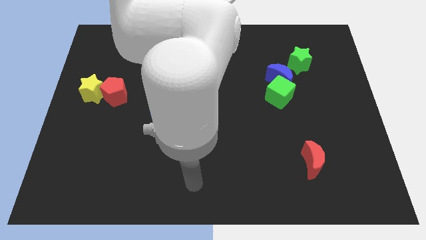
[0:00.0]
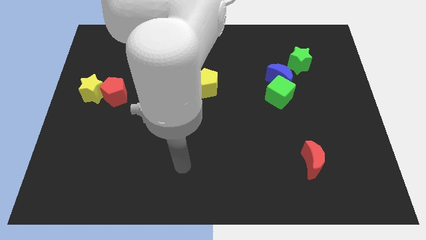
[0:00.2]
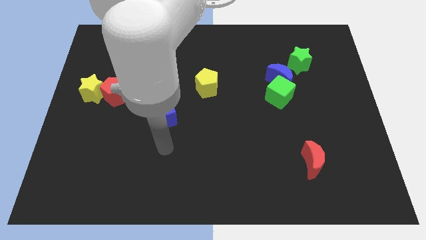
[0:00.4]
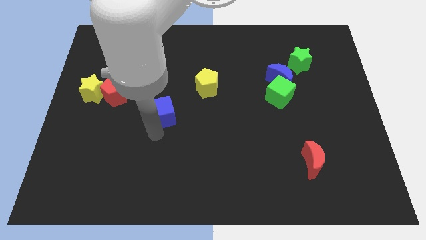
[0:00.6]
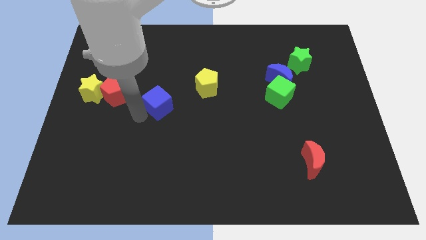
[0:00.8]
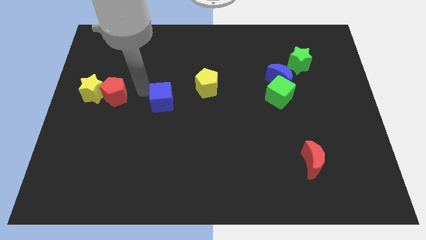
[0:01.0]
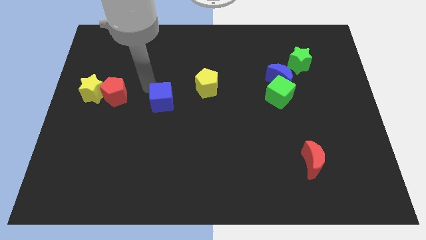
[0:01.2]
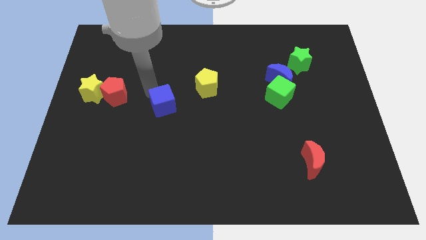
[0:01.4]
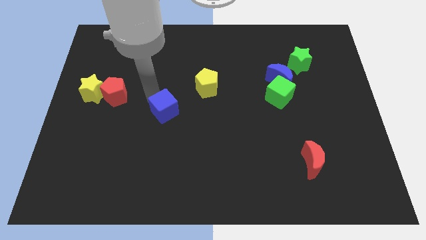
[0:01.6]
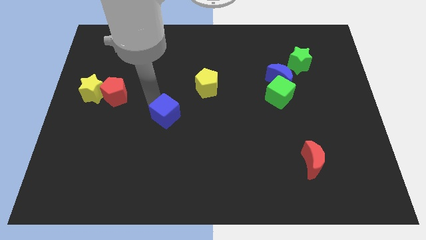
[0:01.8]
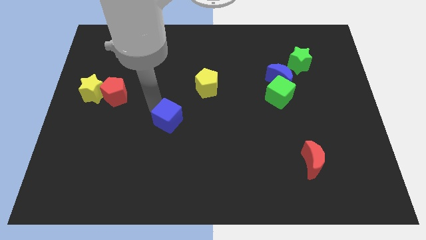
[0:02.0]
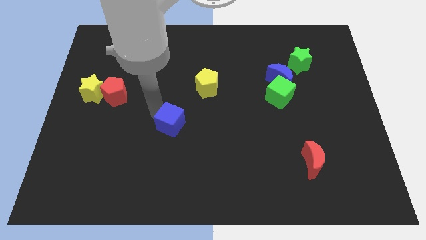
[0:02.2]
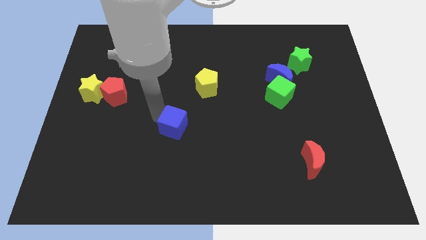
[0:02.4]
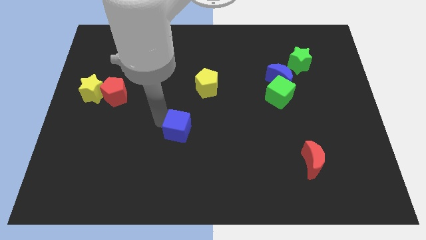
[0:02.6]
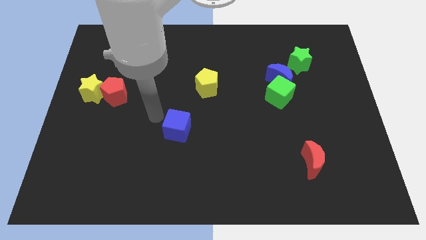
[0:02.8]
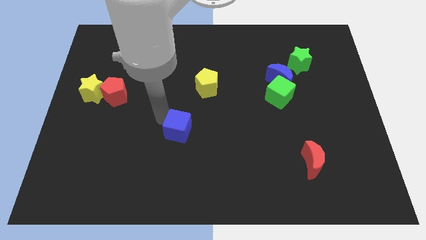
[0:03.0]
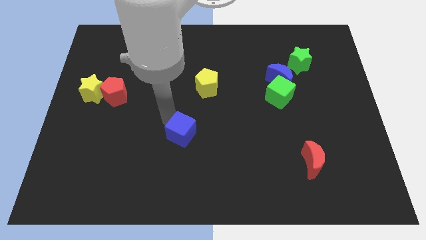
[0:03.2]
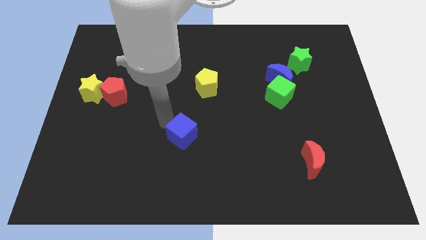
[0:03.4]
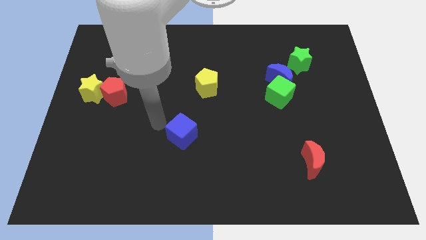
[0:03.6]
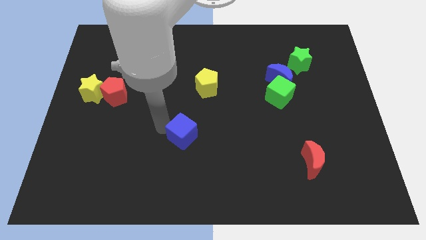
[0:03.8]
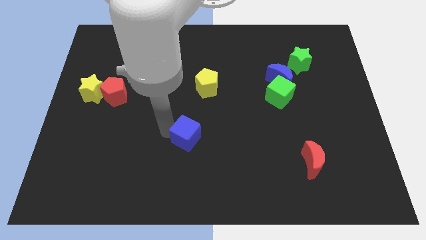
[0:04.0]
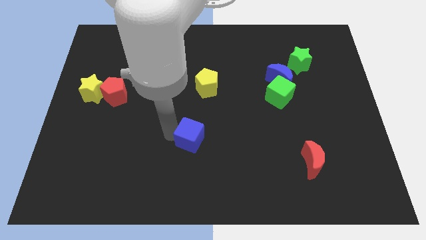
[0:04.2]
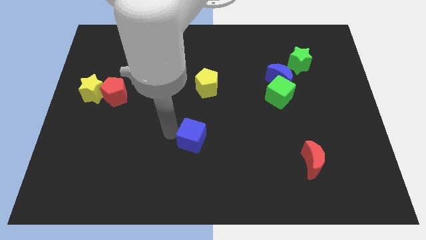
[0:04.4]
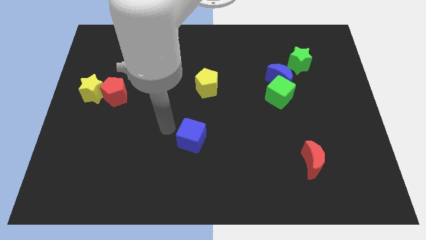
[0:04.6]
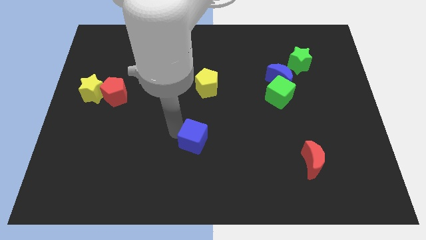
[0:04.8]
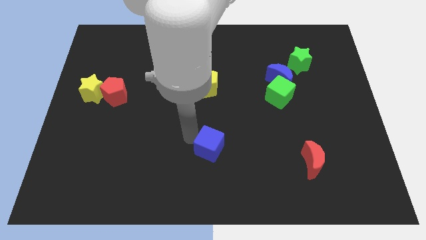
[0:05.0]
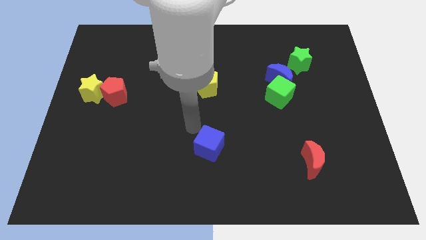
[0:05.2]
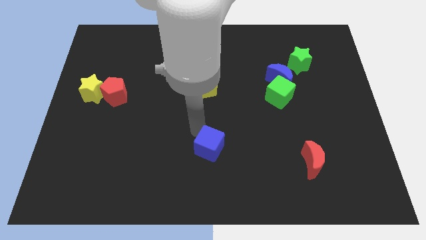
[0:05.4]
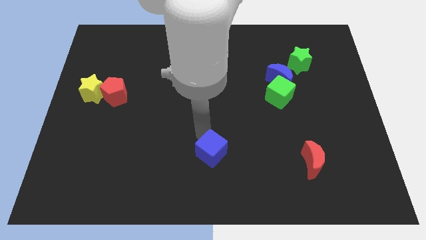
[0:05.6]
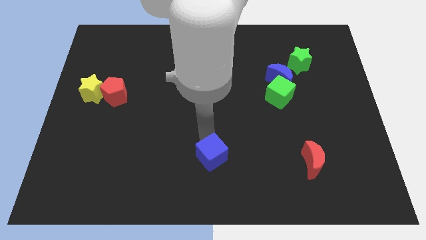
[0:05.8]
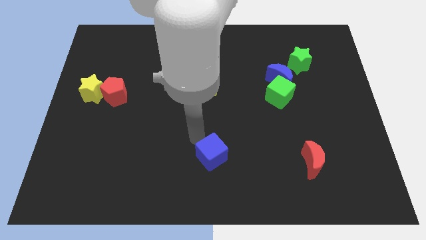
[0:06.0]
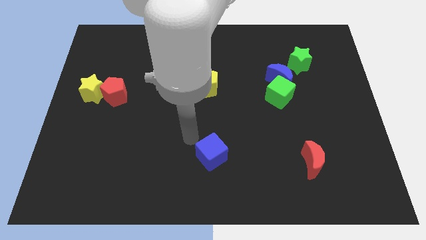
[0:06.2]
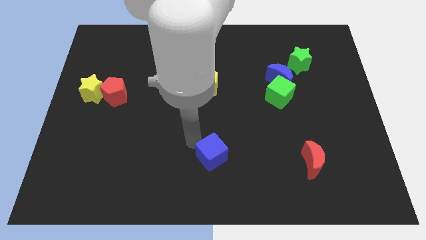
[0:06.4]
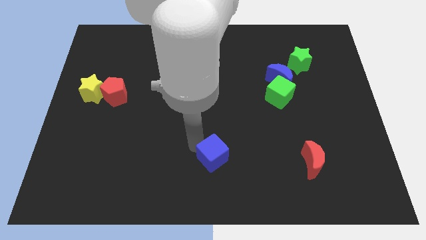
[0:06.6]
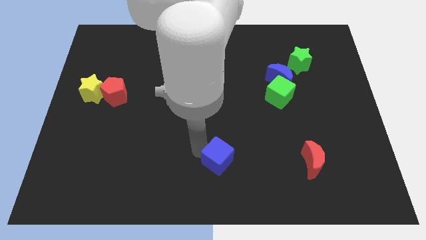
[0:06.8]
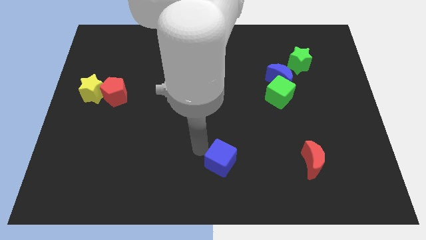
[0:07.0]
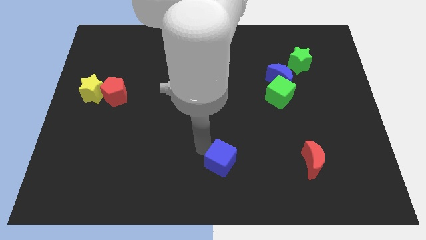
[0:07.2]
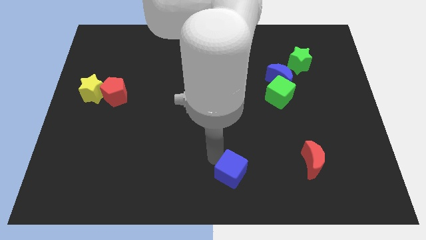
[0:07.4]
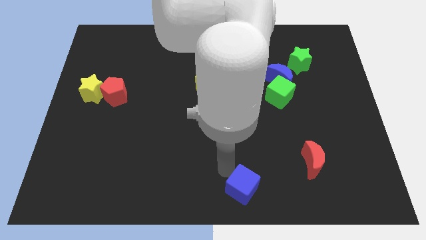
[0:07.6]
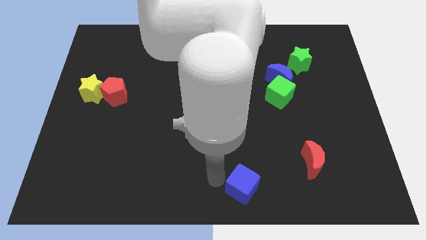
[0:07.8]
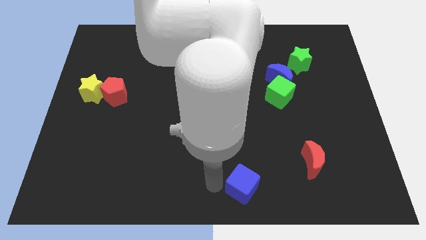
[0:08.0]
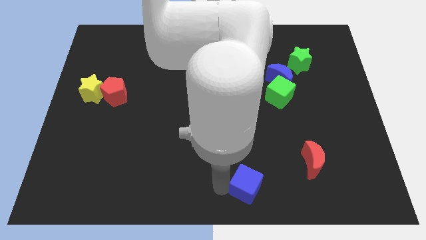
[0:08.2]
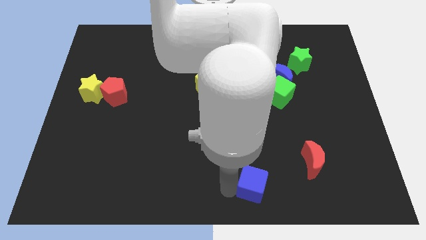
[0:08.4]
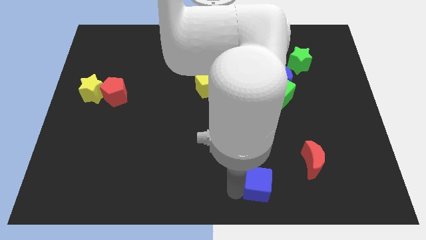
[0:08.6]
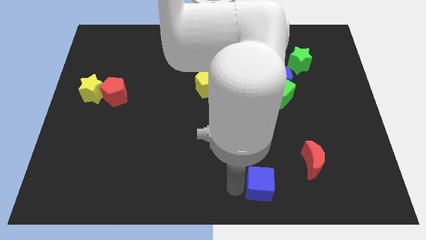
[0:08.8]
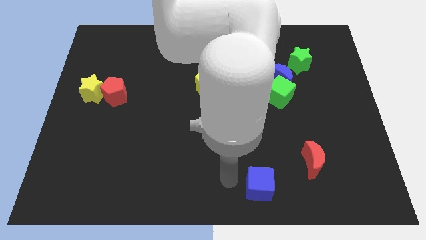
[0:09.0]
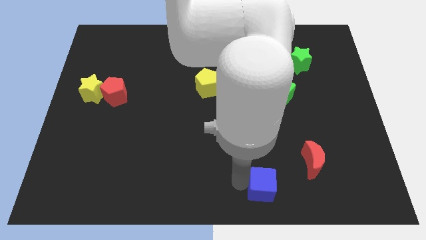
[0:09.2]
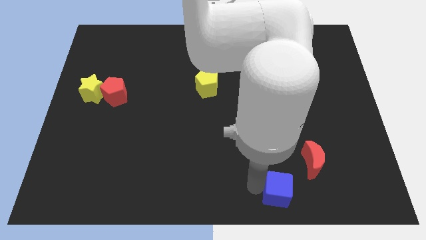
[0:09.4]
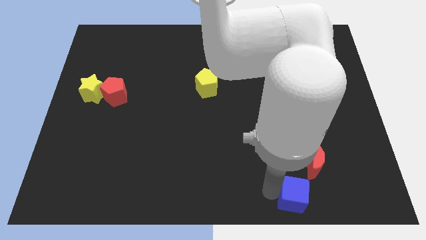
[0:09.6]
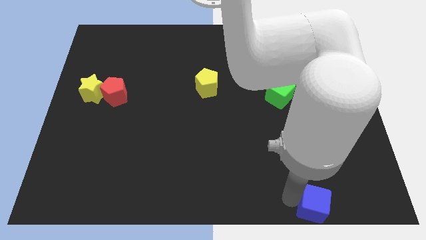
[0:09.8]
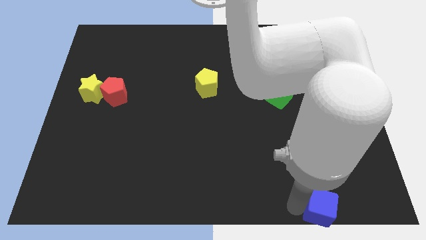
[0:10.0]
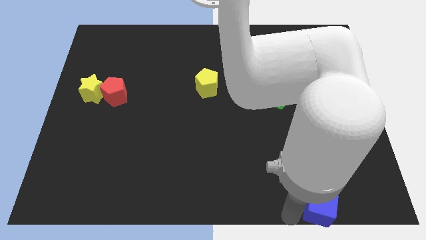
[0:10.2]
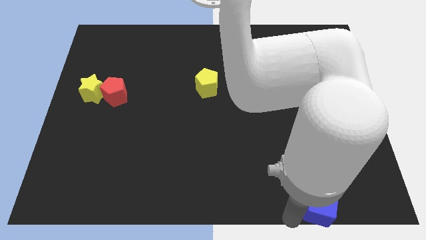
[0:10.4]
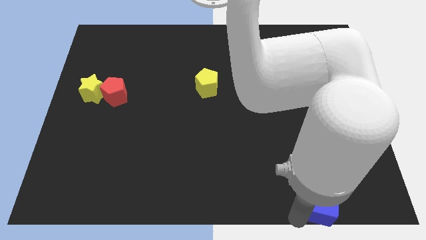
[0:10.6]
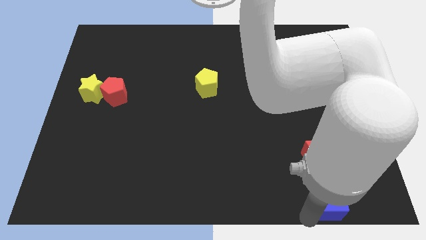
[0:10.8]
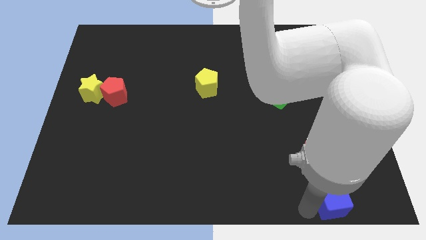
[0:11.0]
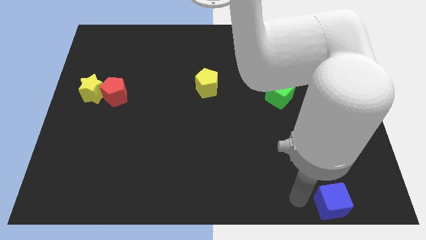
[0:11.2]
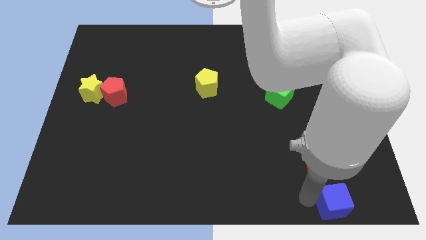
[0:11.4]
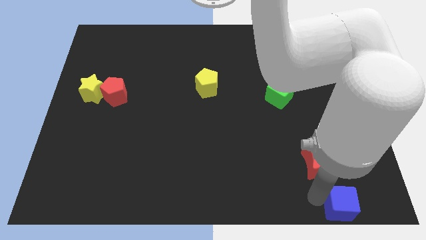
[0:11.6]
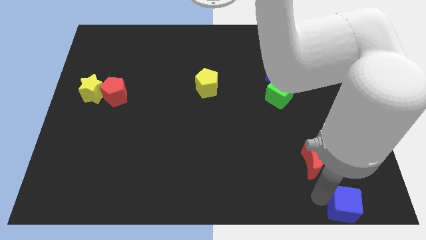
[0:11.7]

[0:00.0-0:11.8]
put the blue cube to the bottom right corner

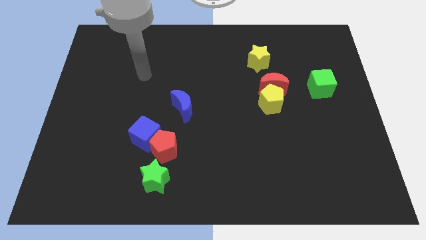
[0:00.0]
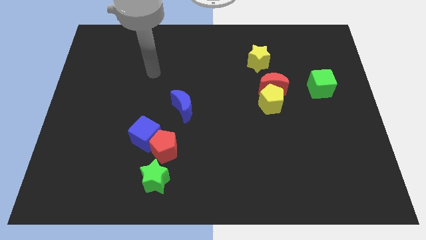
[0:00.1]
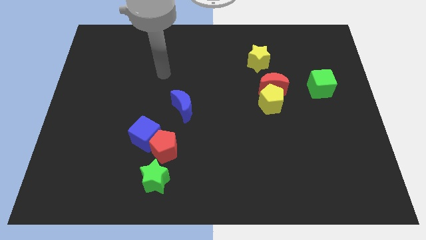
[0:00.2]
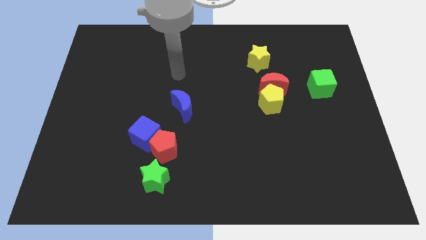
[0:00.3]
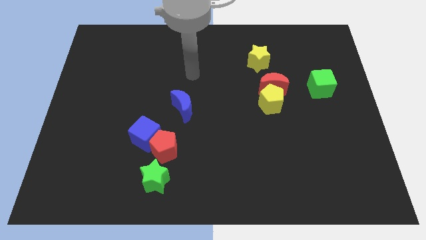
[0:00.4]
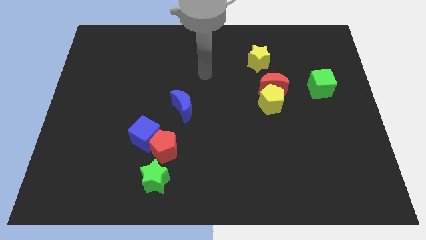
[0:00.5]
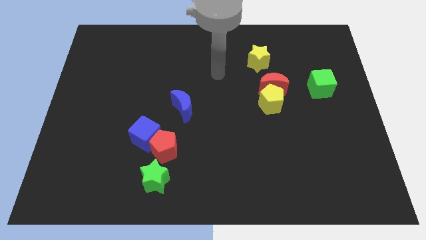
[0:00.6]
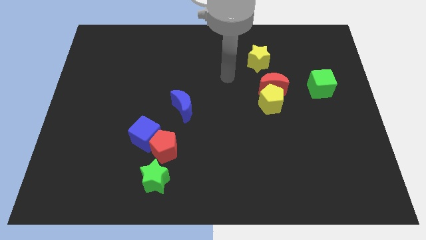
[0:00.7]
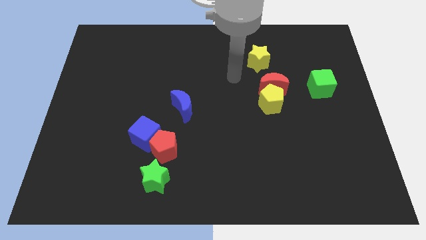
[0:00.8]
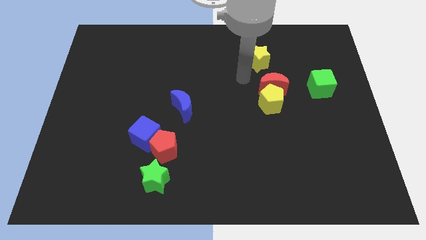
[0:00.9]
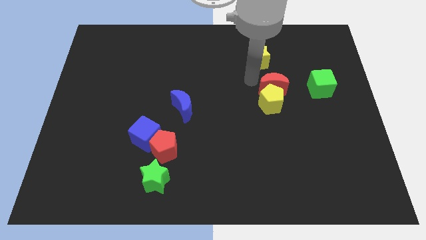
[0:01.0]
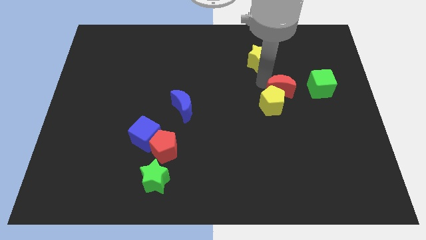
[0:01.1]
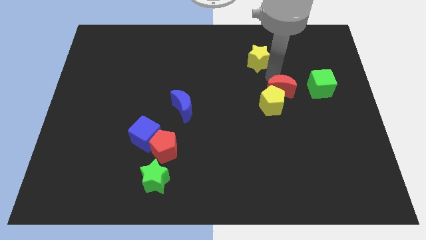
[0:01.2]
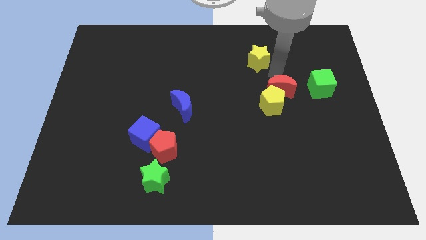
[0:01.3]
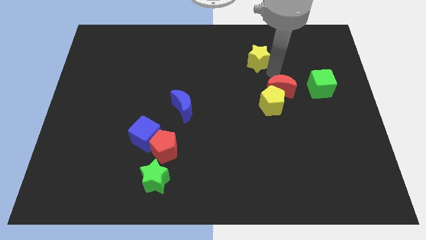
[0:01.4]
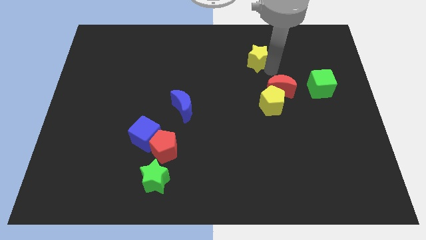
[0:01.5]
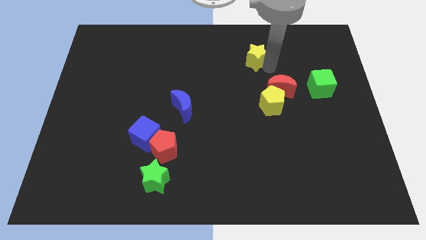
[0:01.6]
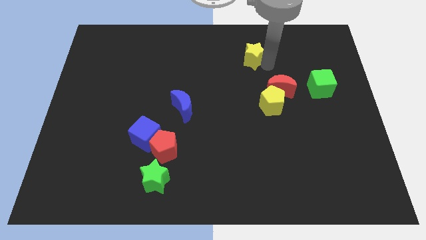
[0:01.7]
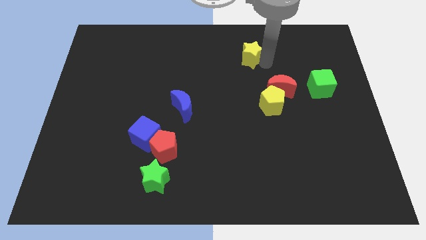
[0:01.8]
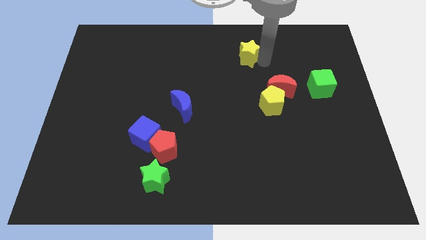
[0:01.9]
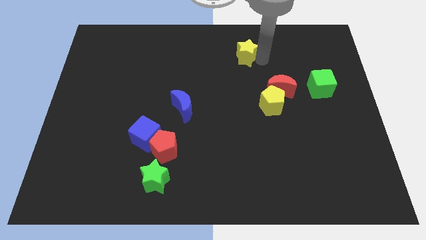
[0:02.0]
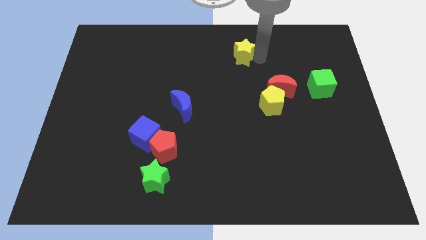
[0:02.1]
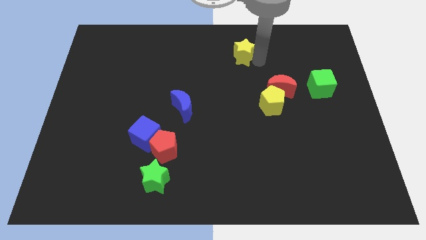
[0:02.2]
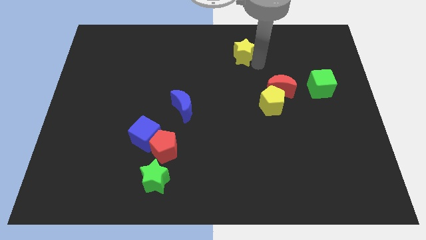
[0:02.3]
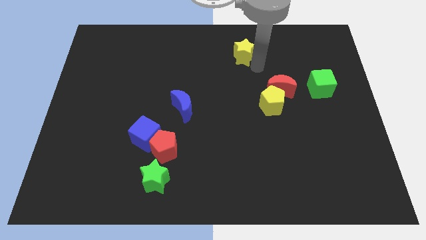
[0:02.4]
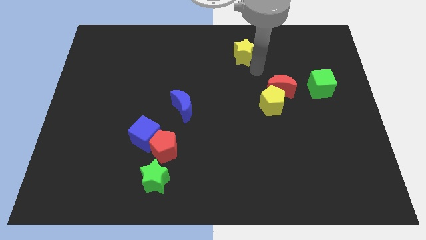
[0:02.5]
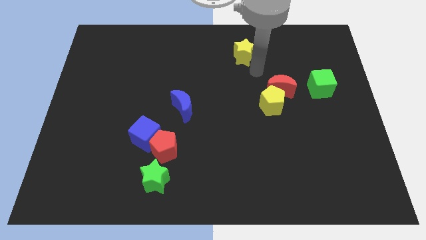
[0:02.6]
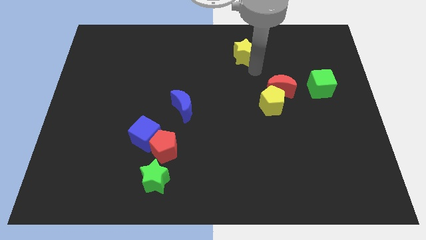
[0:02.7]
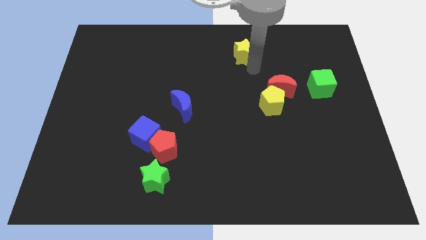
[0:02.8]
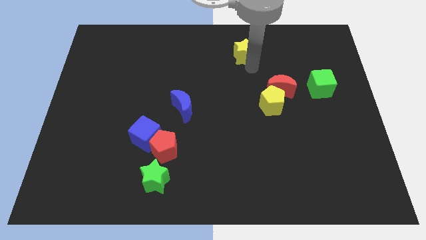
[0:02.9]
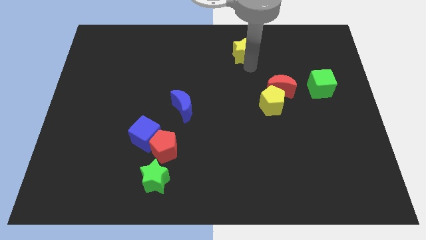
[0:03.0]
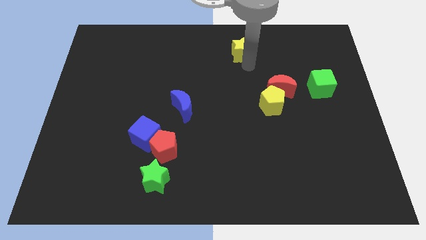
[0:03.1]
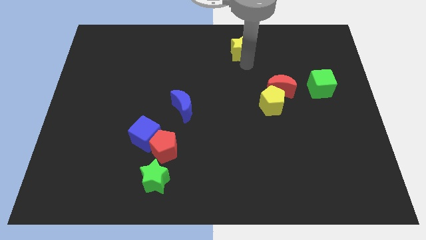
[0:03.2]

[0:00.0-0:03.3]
push the yellow star to the top side
